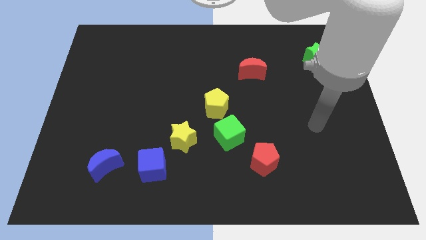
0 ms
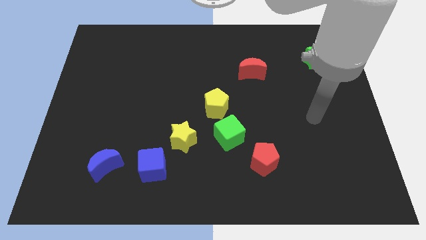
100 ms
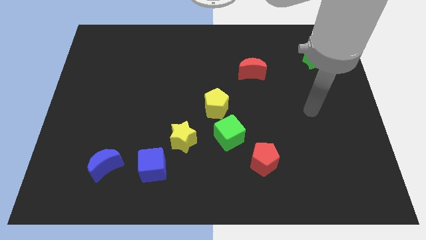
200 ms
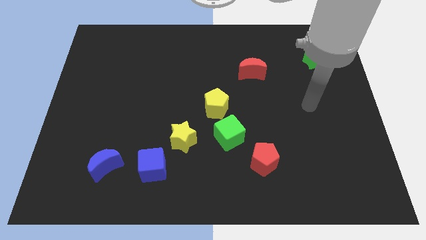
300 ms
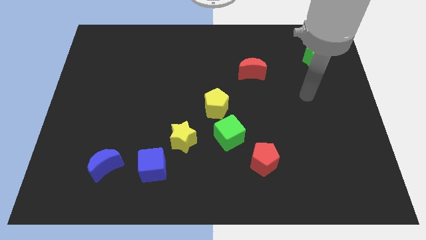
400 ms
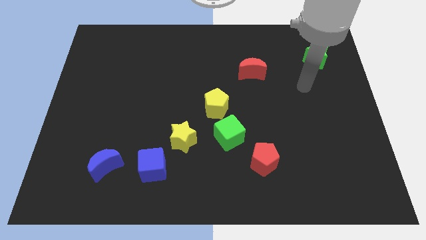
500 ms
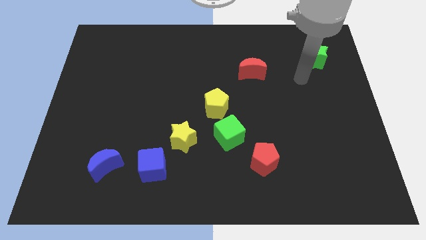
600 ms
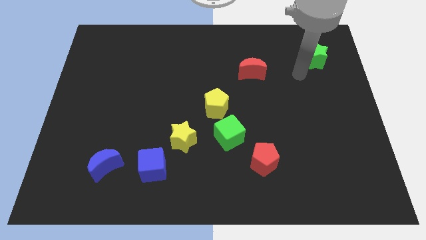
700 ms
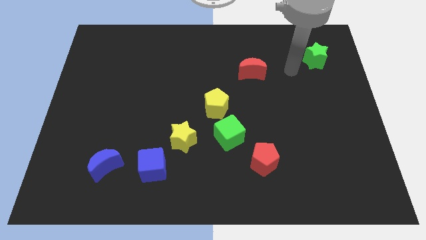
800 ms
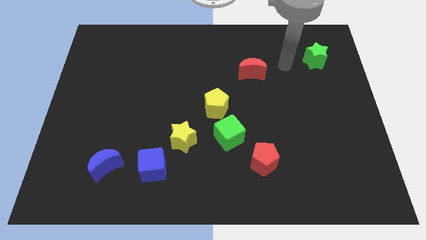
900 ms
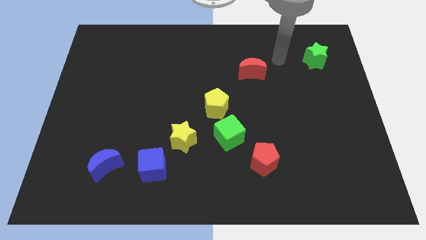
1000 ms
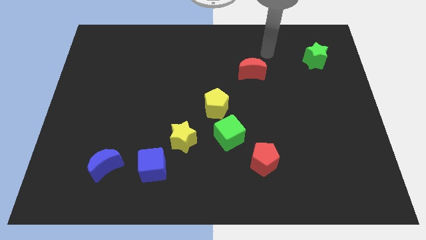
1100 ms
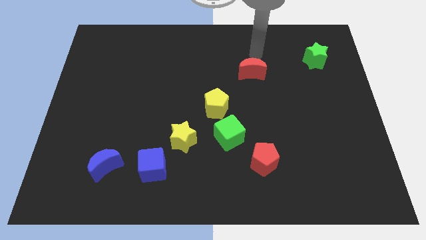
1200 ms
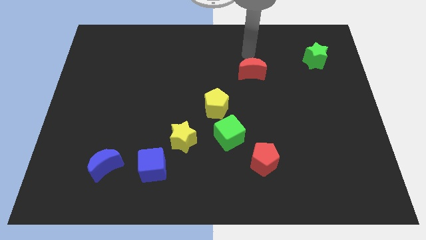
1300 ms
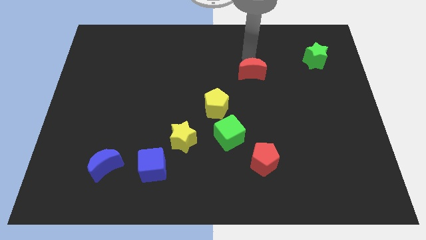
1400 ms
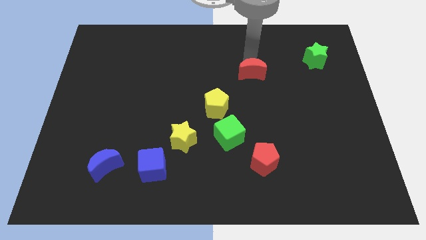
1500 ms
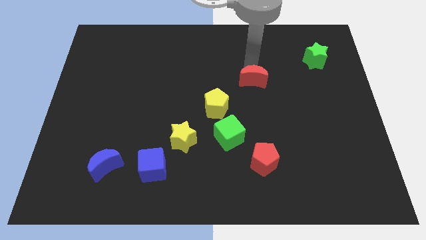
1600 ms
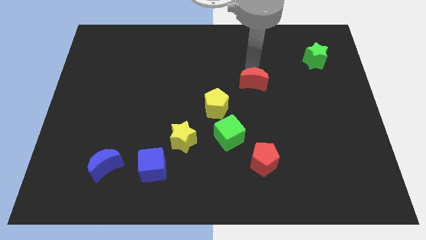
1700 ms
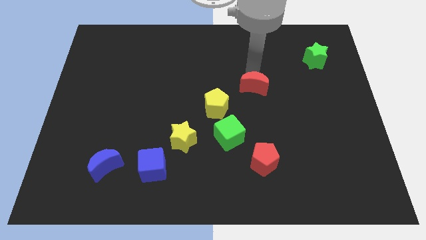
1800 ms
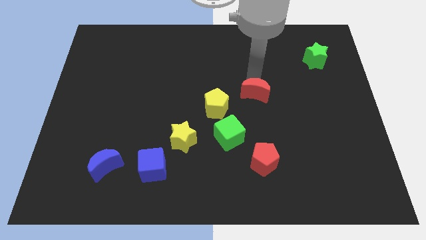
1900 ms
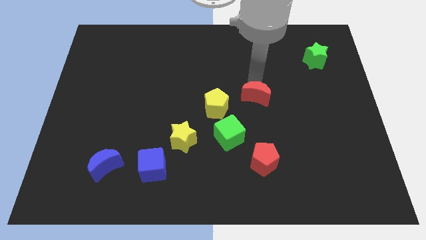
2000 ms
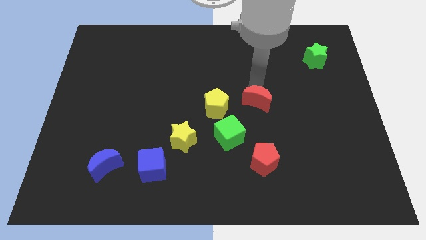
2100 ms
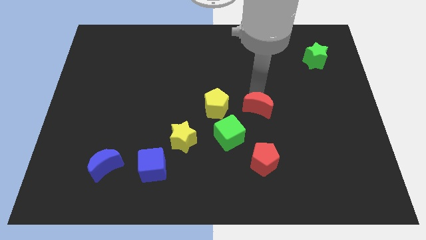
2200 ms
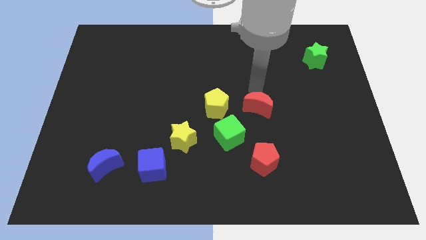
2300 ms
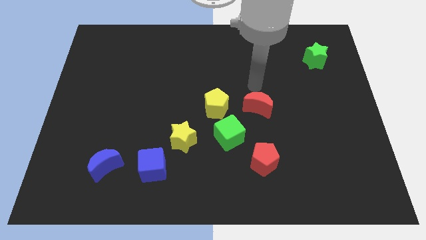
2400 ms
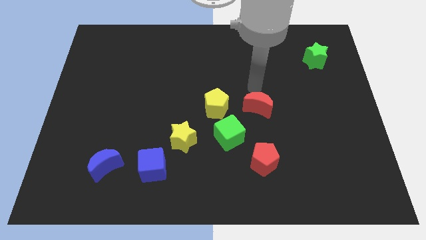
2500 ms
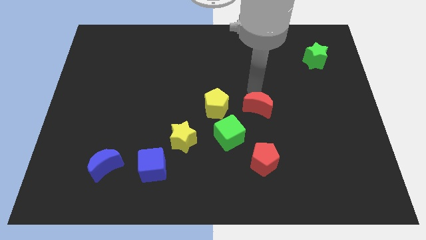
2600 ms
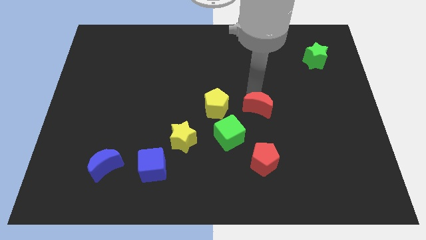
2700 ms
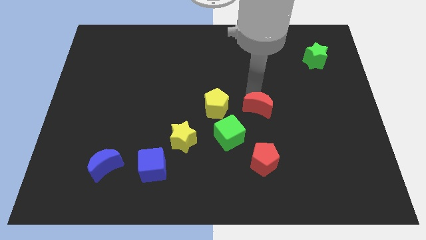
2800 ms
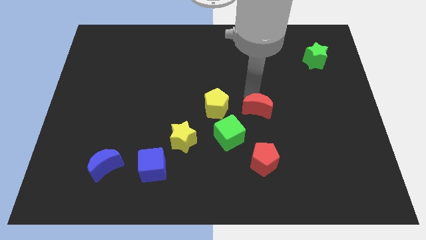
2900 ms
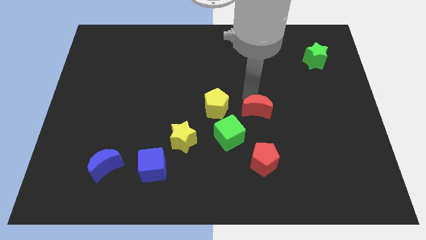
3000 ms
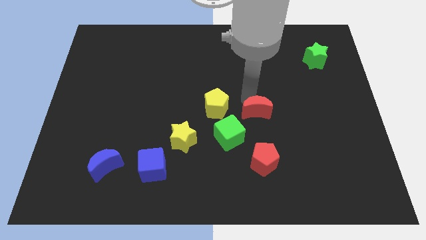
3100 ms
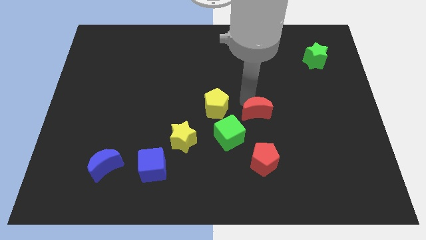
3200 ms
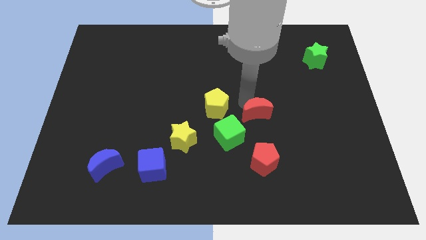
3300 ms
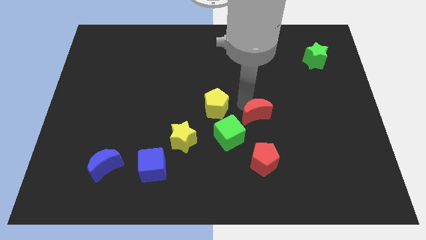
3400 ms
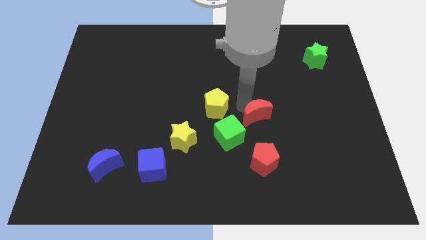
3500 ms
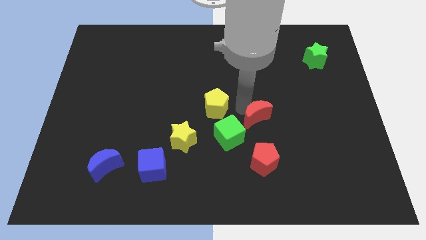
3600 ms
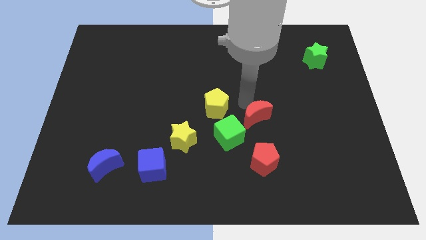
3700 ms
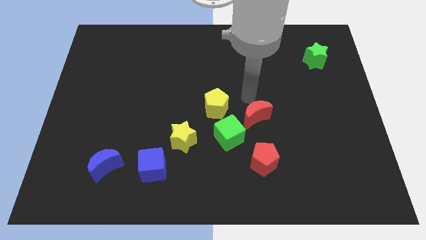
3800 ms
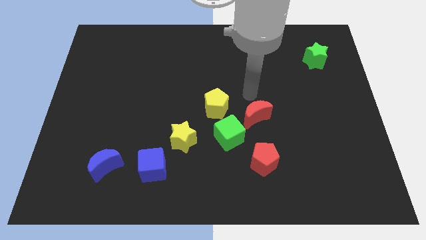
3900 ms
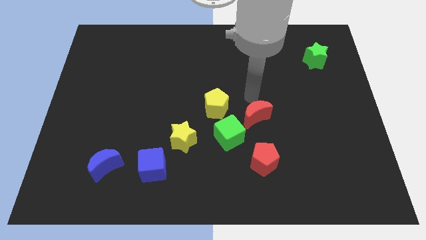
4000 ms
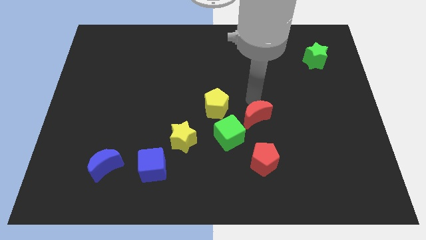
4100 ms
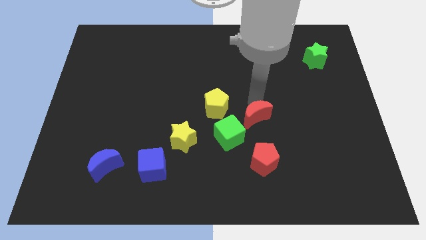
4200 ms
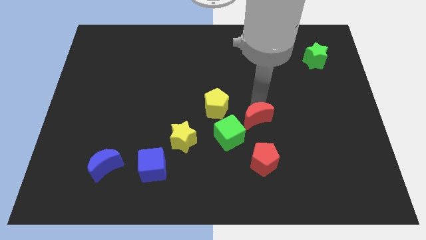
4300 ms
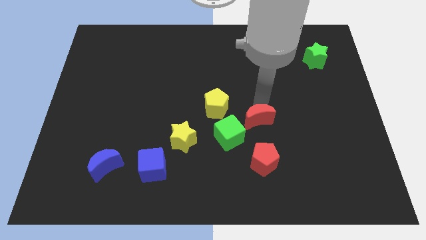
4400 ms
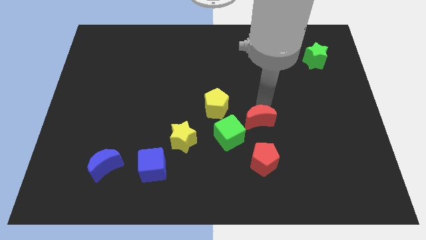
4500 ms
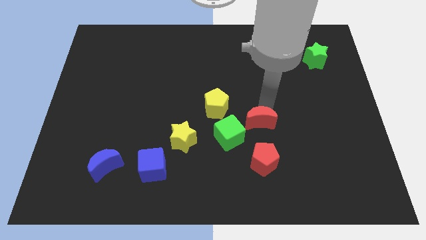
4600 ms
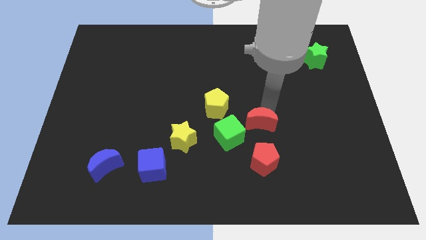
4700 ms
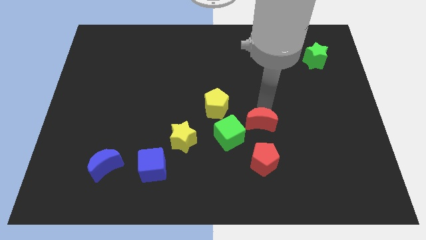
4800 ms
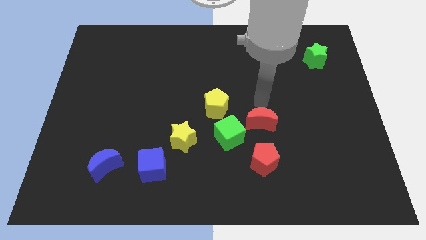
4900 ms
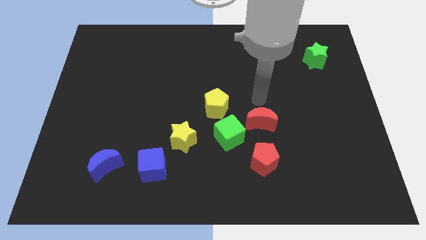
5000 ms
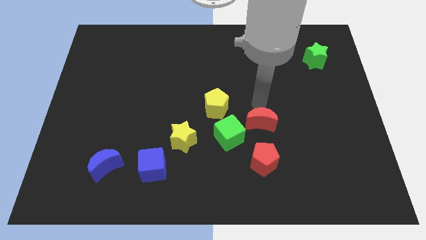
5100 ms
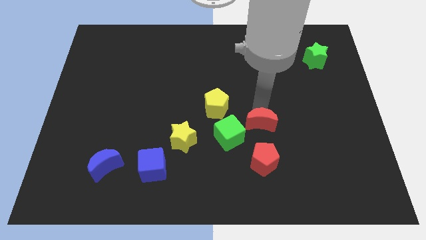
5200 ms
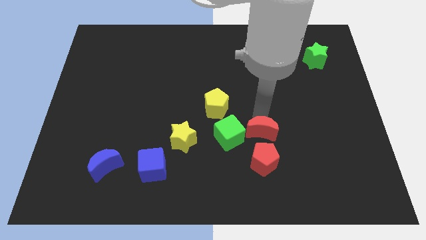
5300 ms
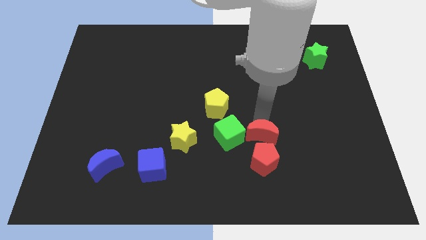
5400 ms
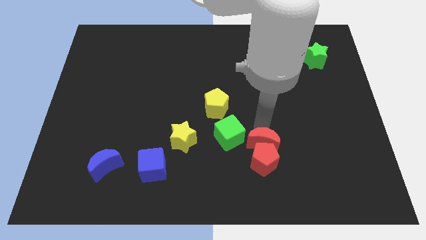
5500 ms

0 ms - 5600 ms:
move the red moon towards the red pentagon
